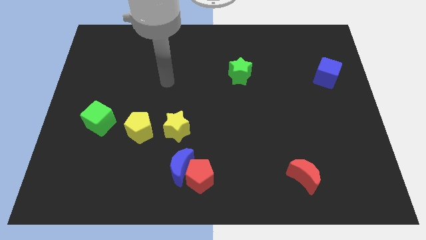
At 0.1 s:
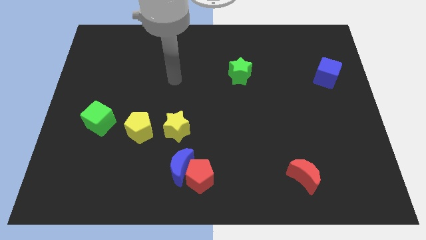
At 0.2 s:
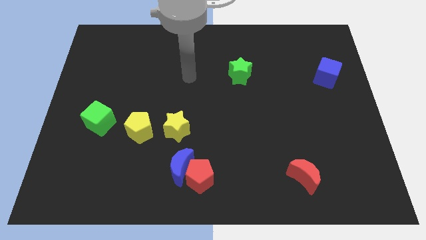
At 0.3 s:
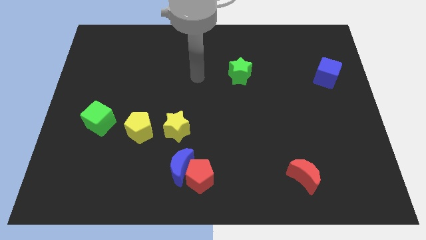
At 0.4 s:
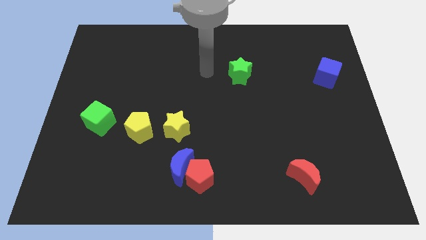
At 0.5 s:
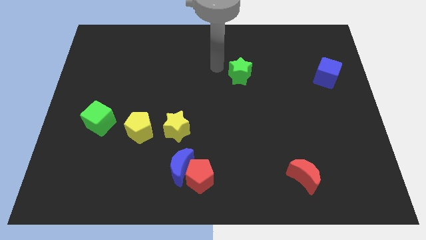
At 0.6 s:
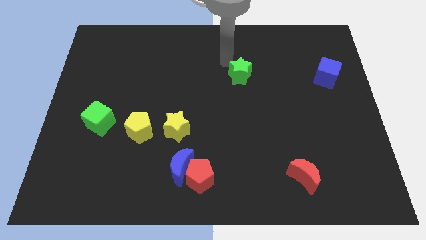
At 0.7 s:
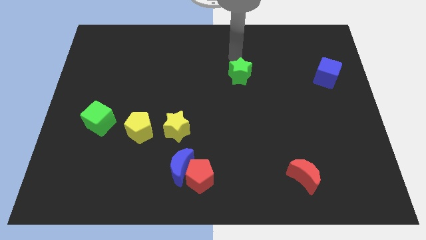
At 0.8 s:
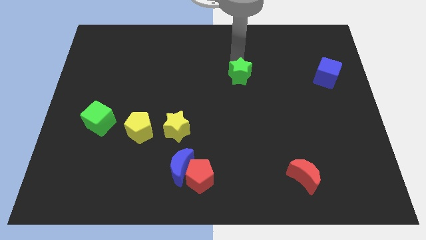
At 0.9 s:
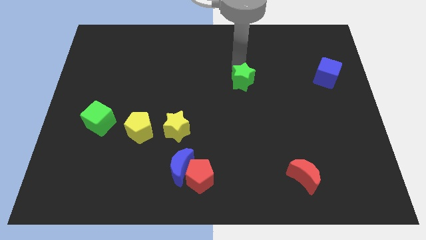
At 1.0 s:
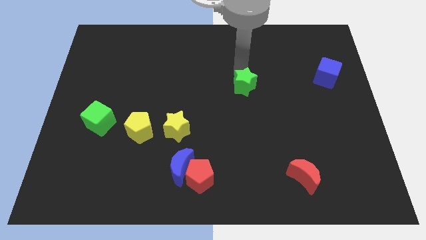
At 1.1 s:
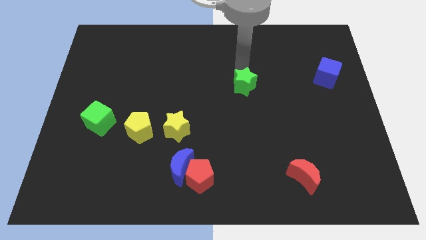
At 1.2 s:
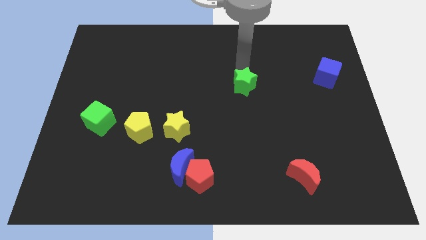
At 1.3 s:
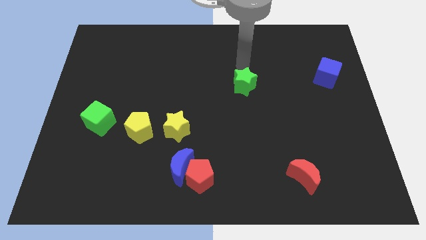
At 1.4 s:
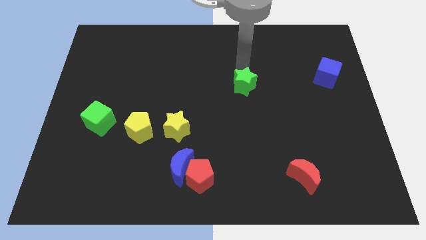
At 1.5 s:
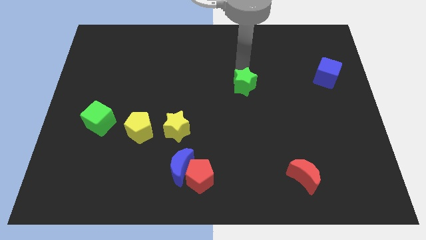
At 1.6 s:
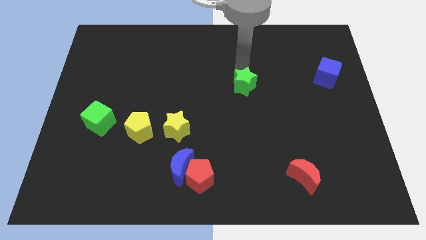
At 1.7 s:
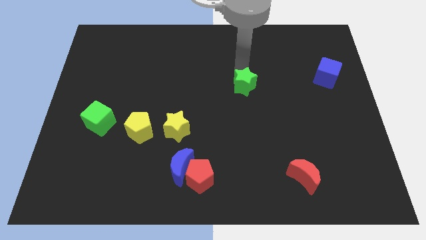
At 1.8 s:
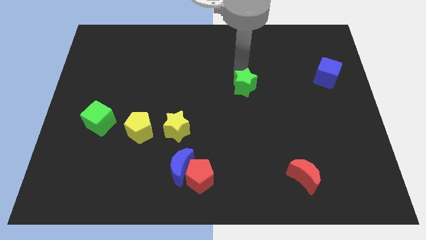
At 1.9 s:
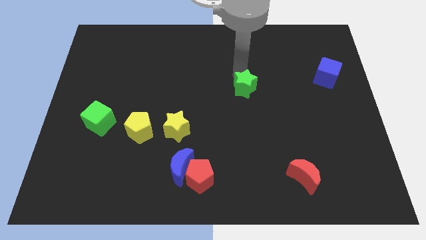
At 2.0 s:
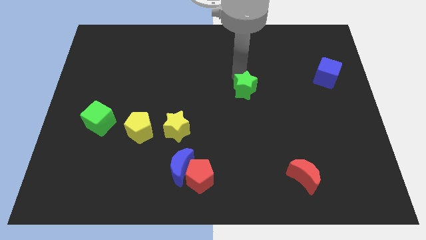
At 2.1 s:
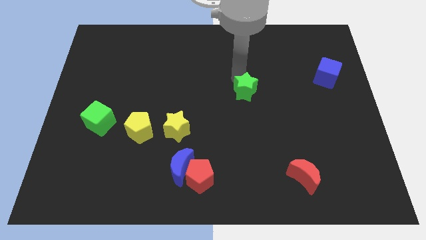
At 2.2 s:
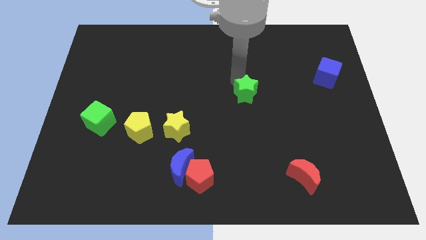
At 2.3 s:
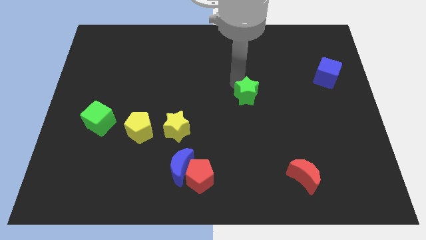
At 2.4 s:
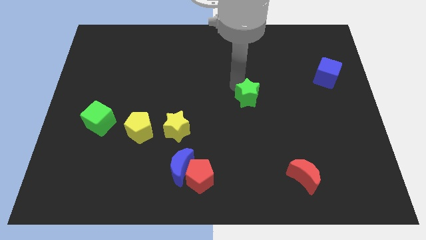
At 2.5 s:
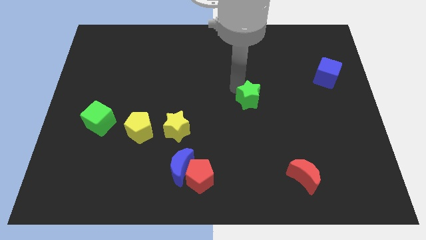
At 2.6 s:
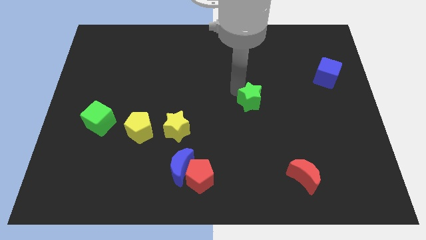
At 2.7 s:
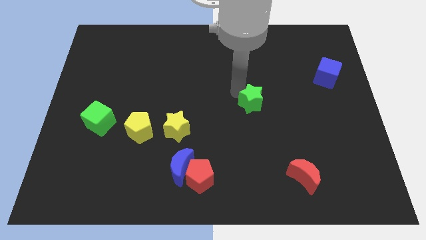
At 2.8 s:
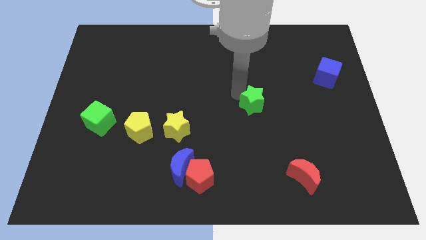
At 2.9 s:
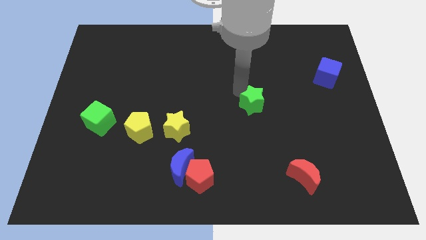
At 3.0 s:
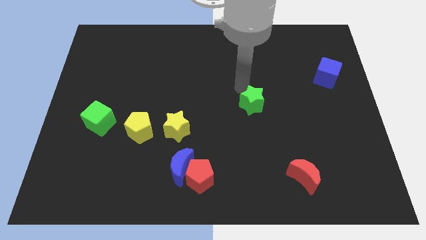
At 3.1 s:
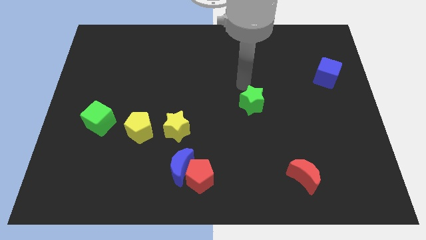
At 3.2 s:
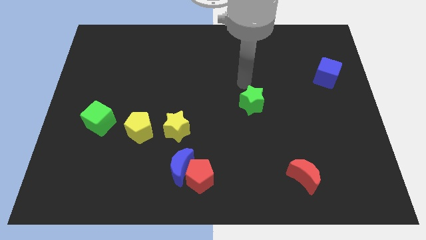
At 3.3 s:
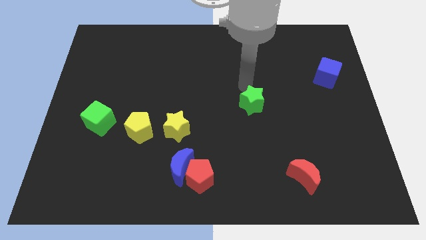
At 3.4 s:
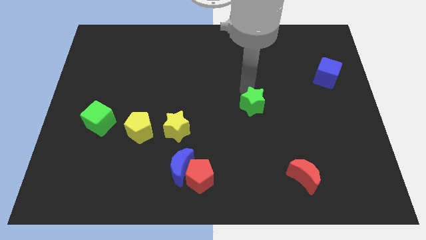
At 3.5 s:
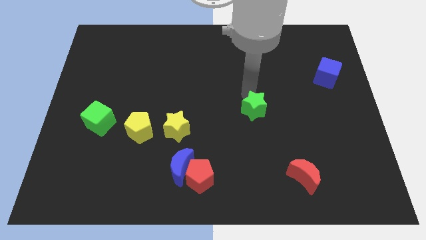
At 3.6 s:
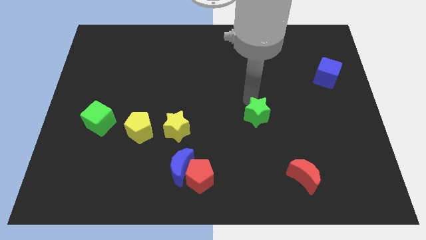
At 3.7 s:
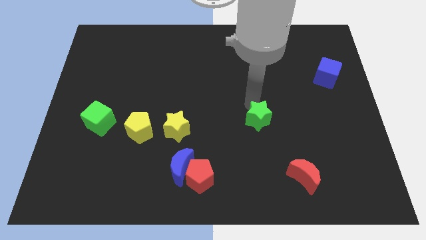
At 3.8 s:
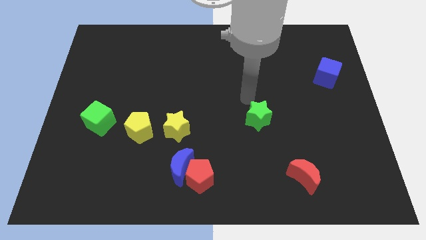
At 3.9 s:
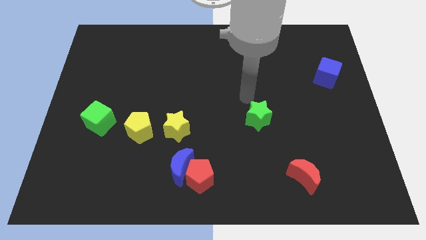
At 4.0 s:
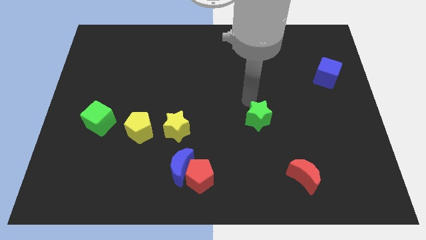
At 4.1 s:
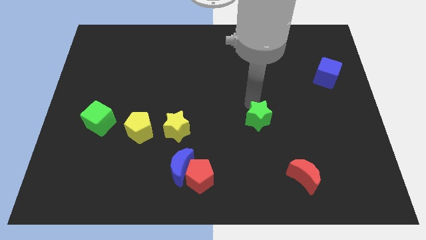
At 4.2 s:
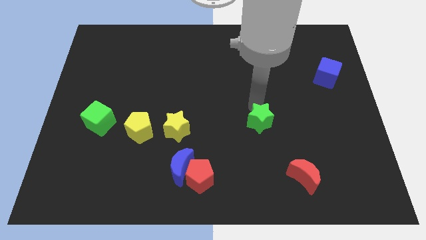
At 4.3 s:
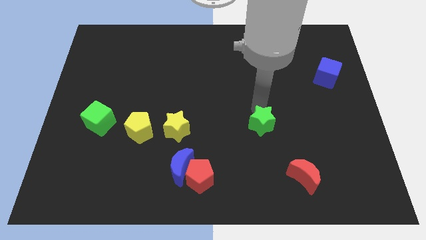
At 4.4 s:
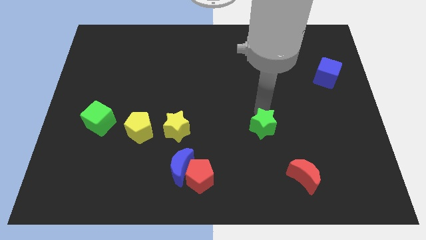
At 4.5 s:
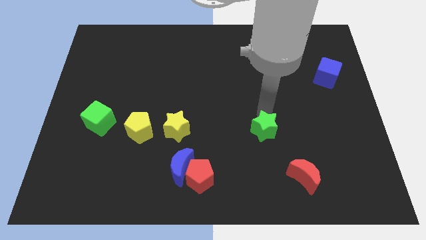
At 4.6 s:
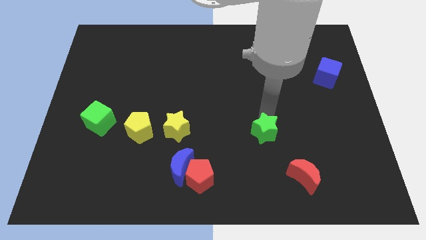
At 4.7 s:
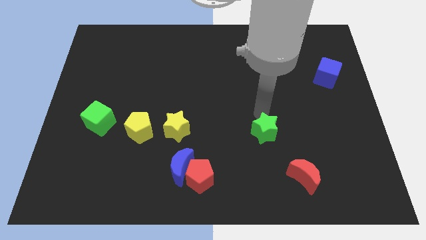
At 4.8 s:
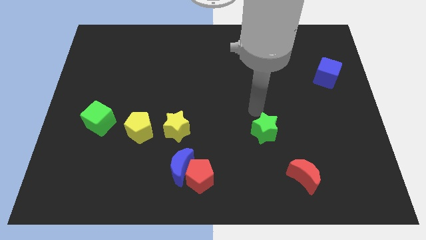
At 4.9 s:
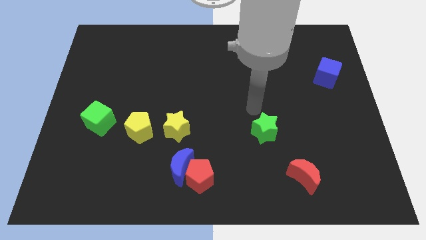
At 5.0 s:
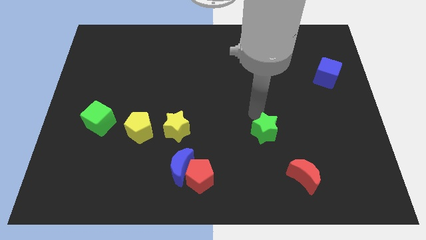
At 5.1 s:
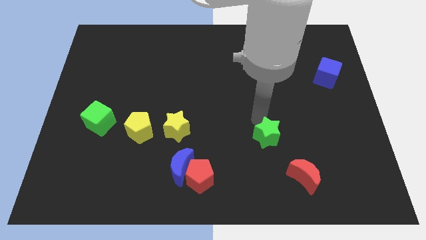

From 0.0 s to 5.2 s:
put the green star diagonally up and to the left of the red moon

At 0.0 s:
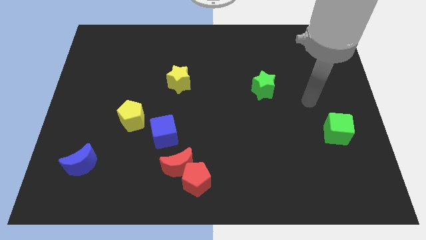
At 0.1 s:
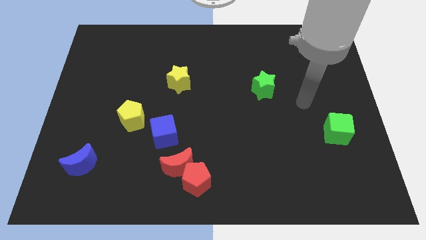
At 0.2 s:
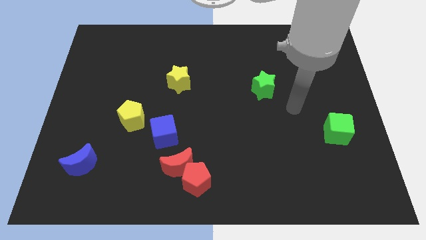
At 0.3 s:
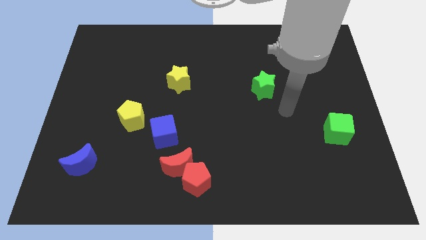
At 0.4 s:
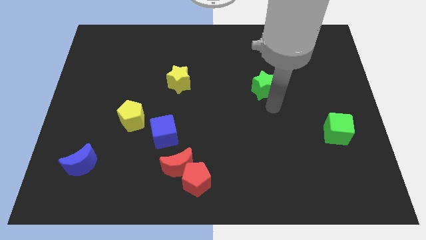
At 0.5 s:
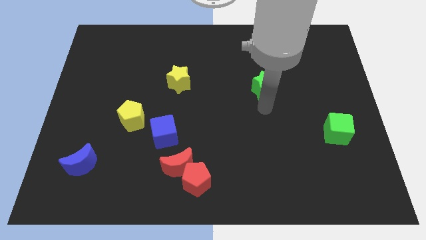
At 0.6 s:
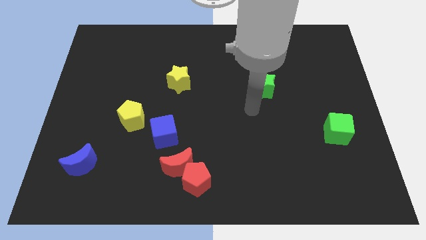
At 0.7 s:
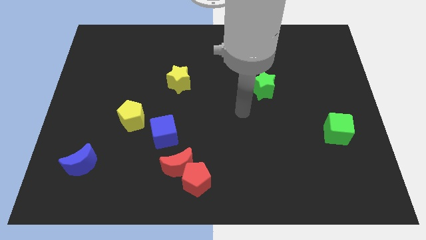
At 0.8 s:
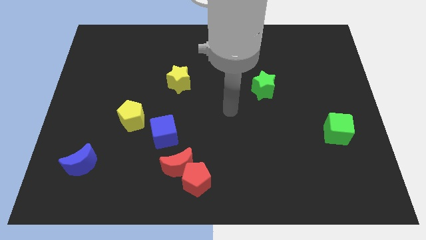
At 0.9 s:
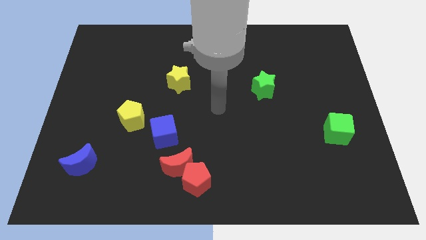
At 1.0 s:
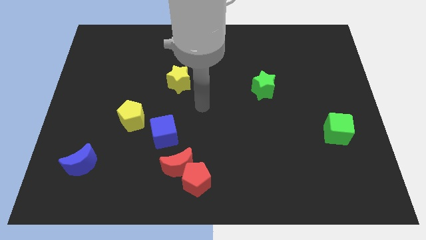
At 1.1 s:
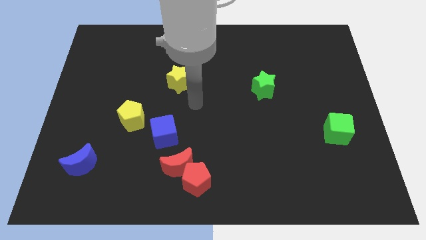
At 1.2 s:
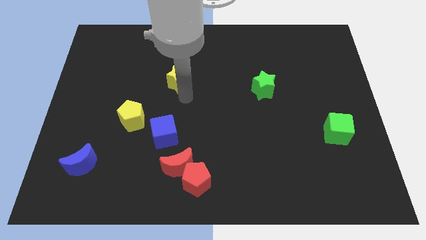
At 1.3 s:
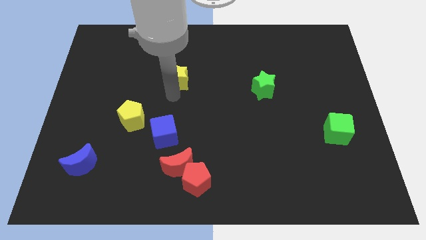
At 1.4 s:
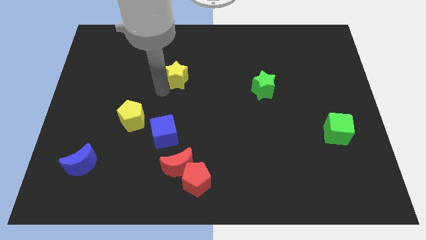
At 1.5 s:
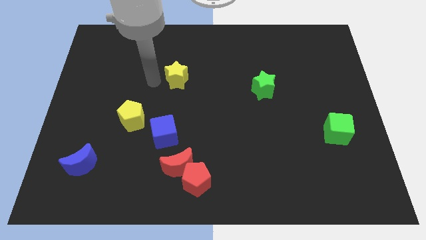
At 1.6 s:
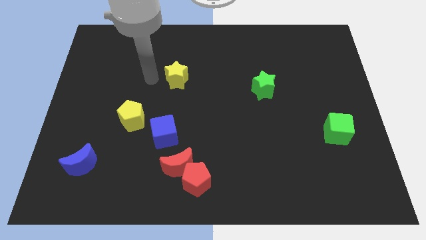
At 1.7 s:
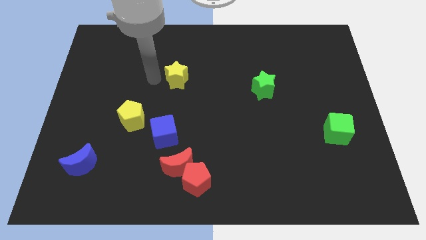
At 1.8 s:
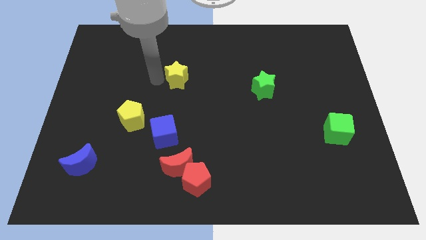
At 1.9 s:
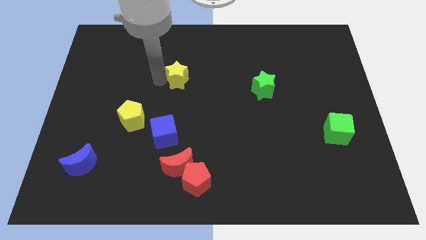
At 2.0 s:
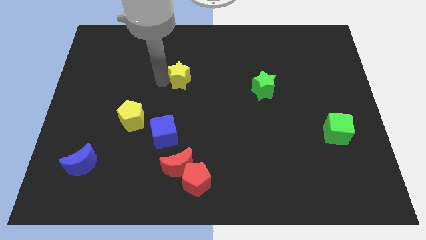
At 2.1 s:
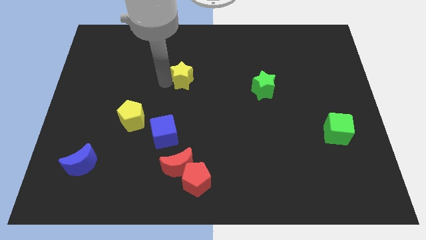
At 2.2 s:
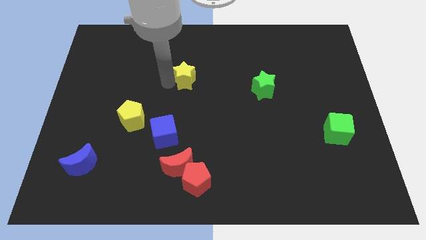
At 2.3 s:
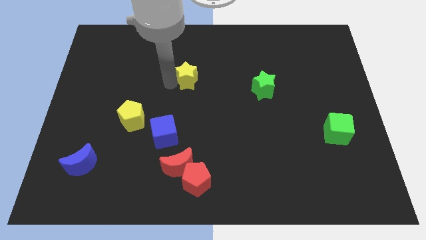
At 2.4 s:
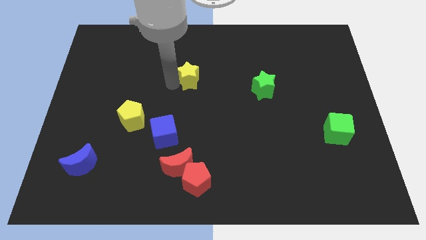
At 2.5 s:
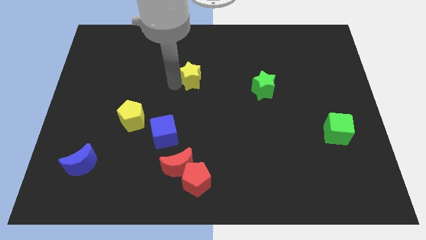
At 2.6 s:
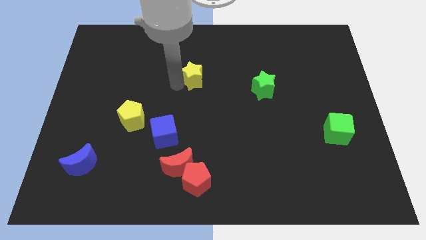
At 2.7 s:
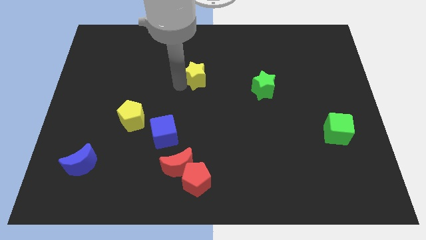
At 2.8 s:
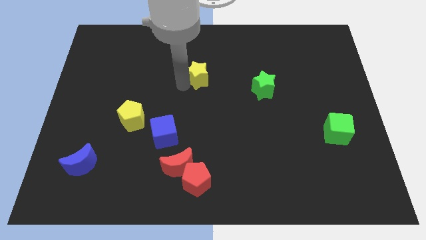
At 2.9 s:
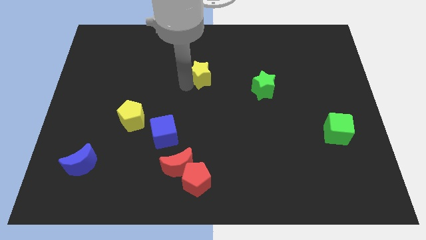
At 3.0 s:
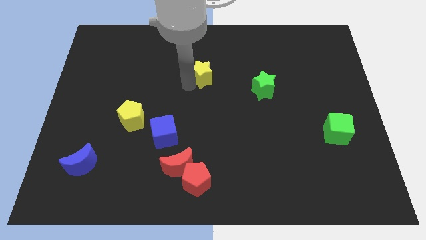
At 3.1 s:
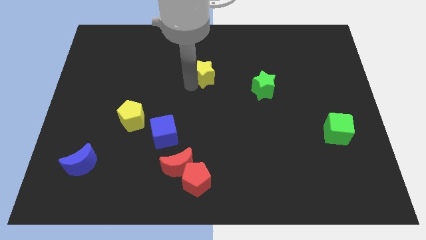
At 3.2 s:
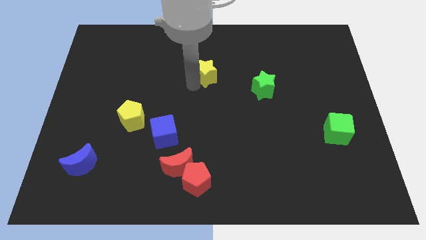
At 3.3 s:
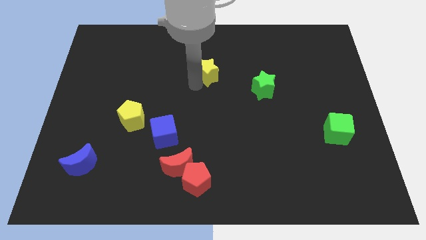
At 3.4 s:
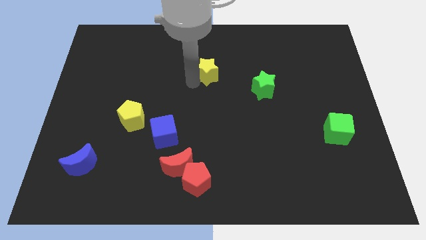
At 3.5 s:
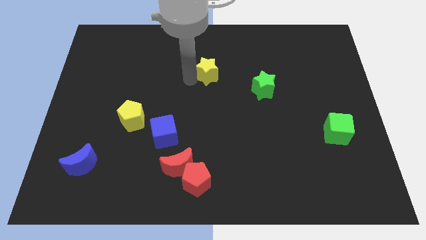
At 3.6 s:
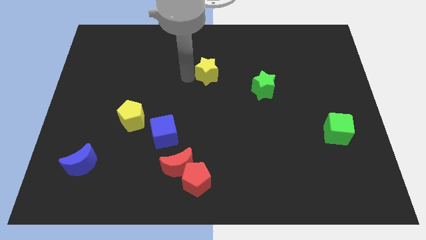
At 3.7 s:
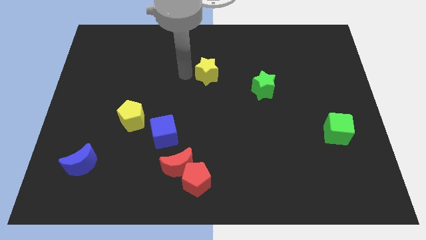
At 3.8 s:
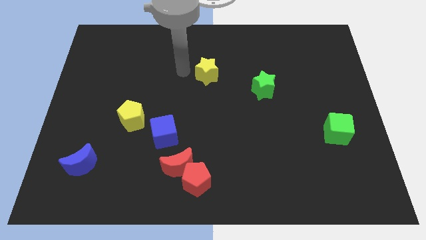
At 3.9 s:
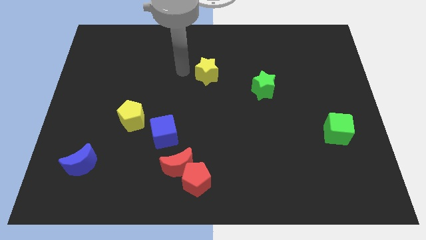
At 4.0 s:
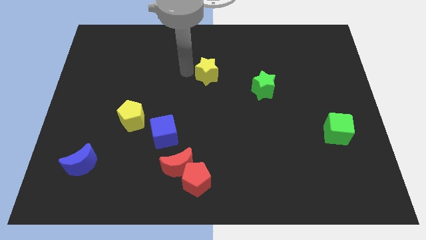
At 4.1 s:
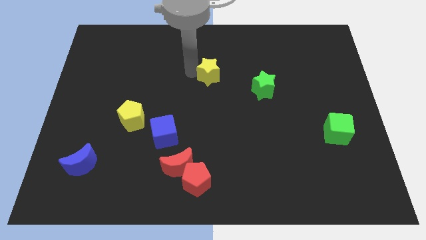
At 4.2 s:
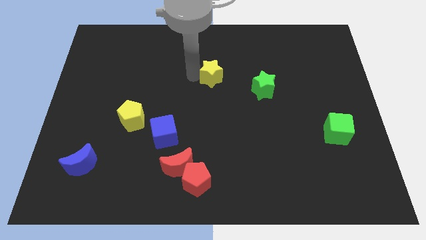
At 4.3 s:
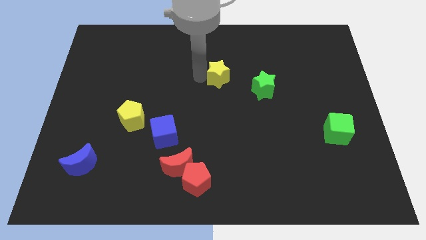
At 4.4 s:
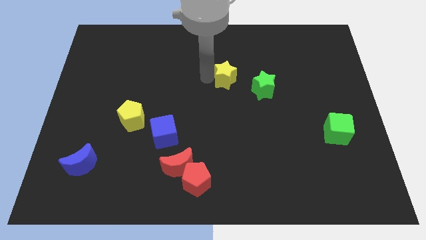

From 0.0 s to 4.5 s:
slide the yellow star to the top left side of the green star
